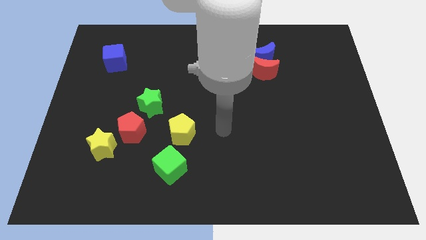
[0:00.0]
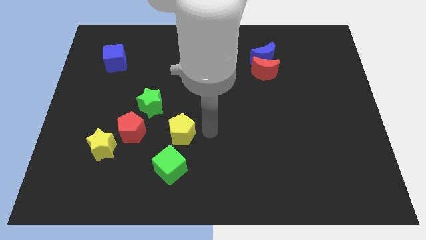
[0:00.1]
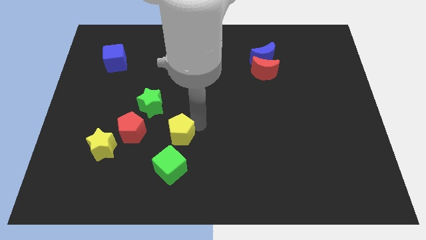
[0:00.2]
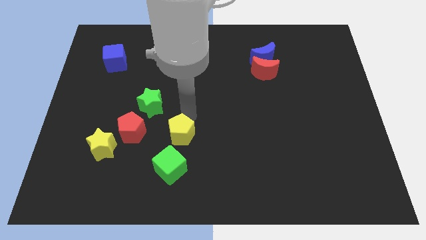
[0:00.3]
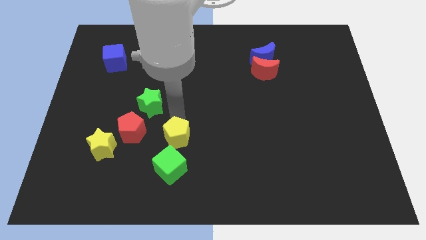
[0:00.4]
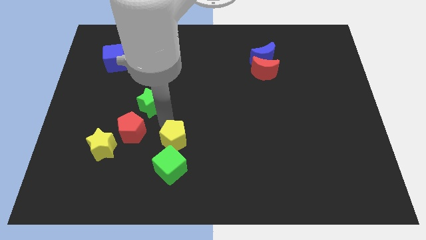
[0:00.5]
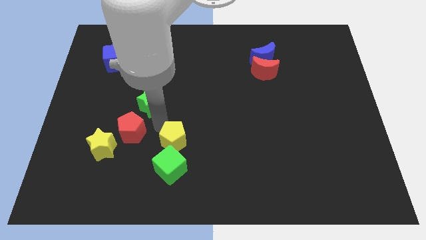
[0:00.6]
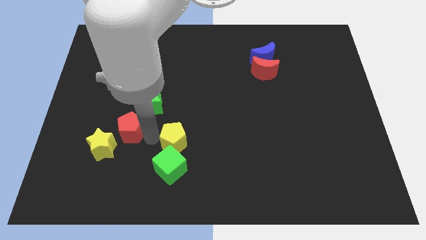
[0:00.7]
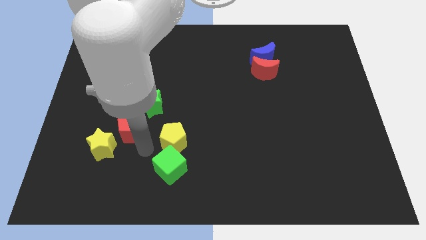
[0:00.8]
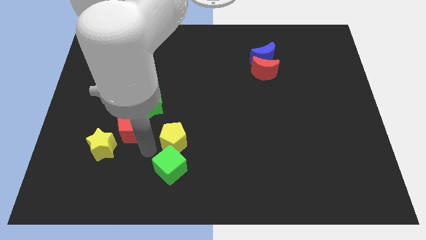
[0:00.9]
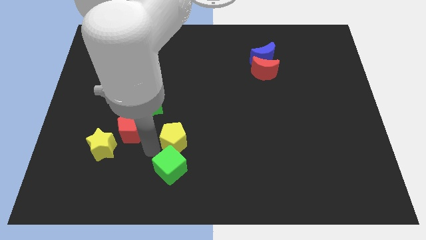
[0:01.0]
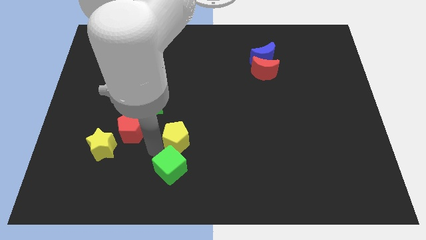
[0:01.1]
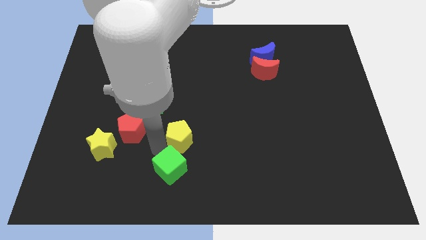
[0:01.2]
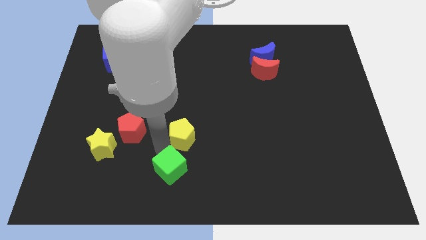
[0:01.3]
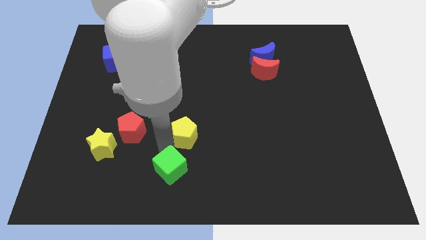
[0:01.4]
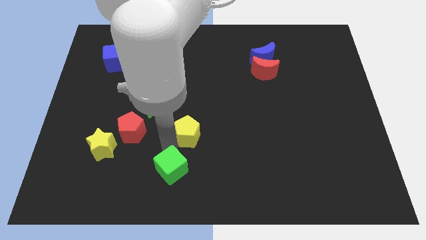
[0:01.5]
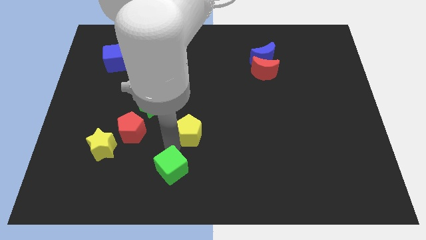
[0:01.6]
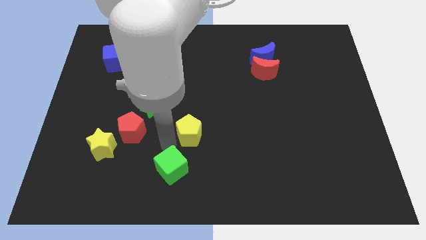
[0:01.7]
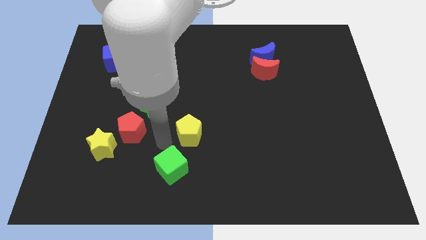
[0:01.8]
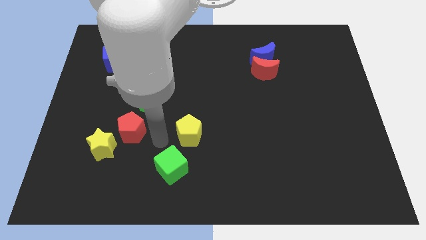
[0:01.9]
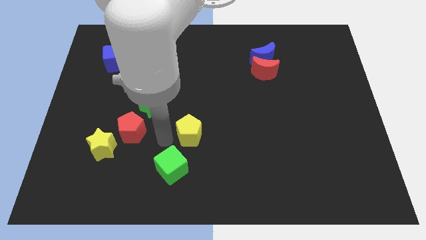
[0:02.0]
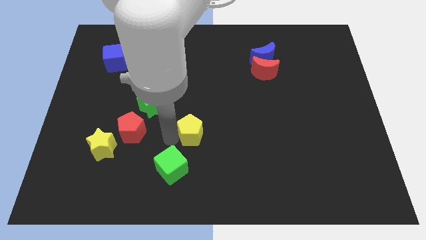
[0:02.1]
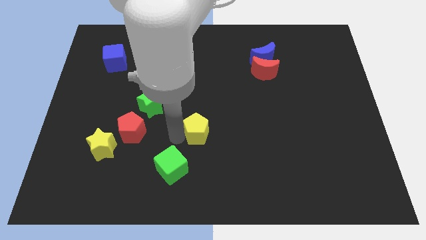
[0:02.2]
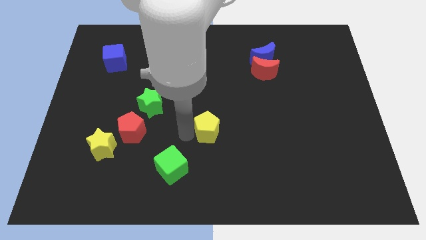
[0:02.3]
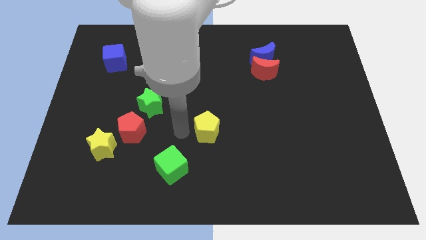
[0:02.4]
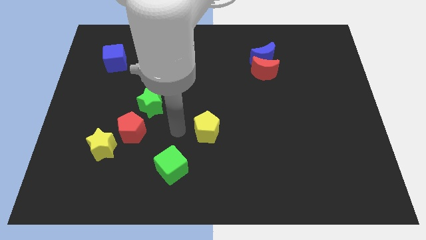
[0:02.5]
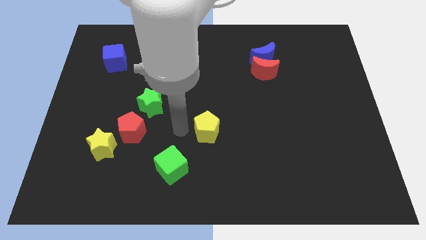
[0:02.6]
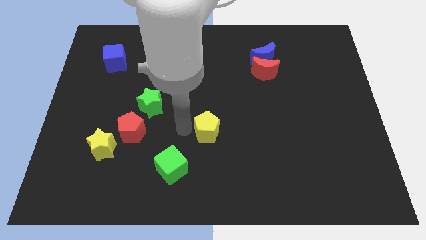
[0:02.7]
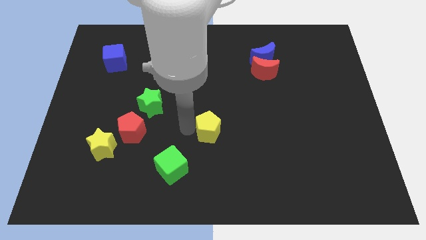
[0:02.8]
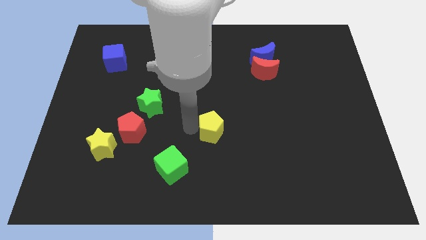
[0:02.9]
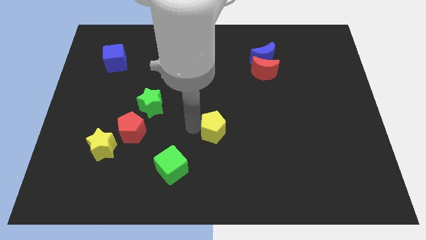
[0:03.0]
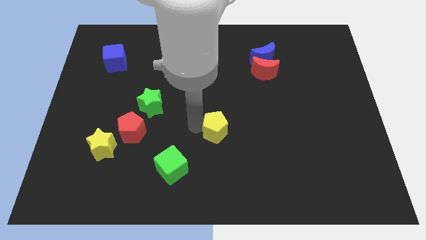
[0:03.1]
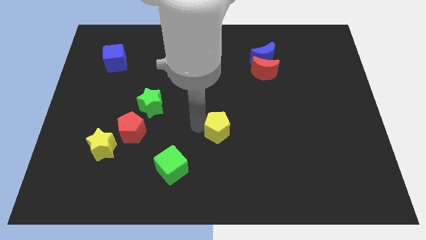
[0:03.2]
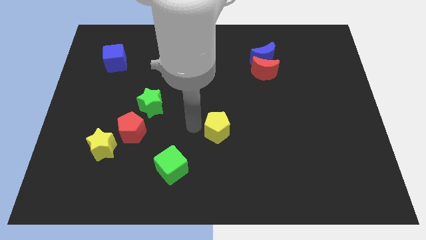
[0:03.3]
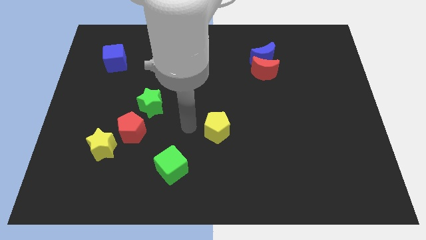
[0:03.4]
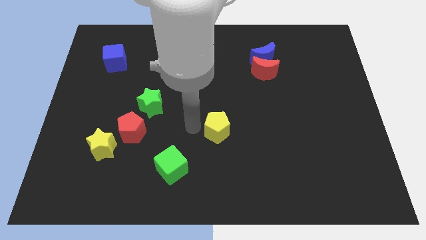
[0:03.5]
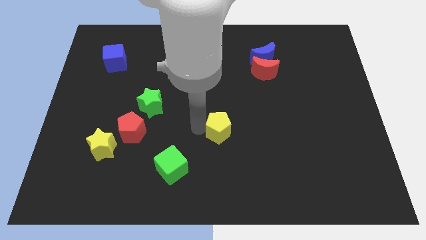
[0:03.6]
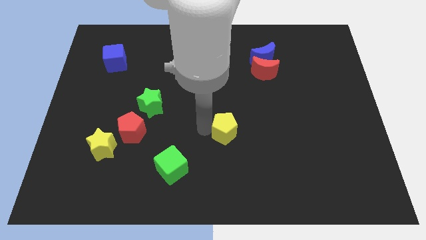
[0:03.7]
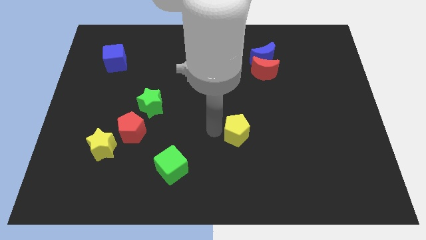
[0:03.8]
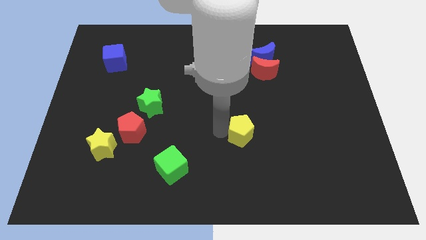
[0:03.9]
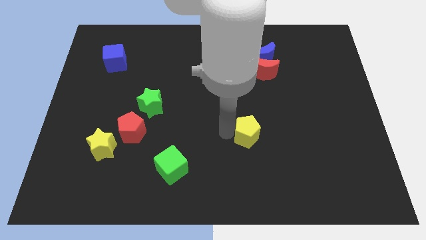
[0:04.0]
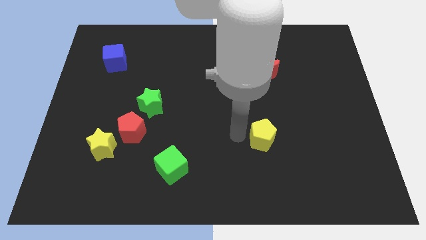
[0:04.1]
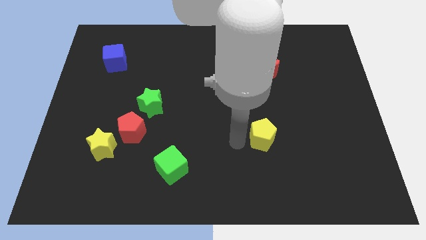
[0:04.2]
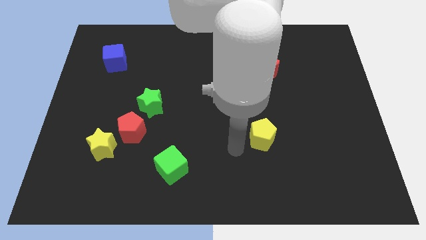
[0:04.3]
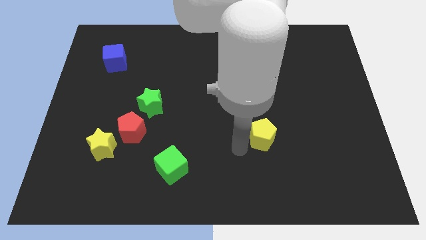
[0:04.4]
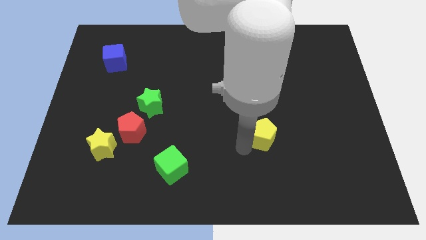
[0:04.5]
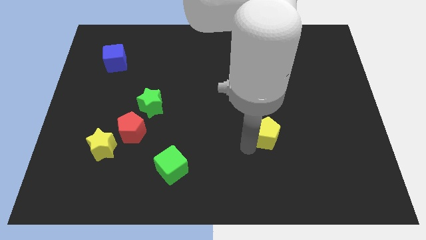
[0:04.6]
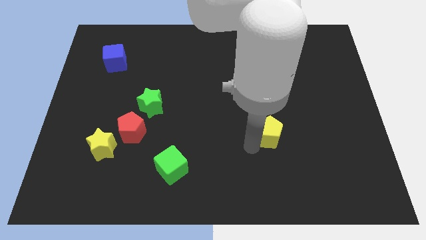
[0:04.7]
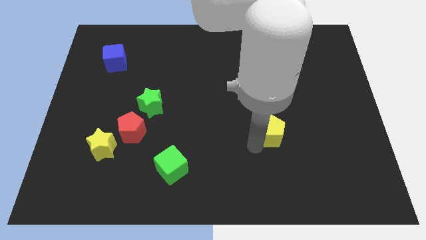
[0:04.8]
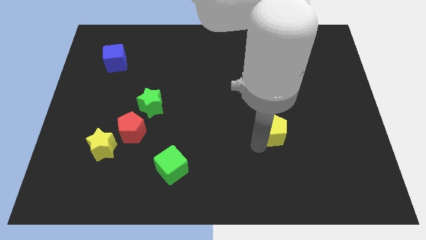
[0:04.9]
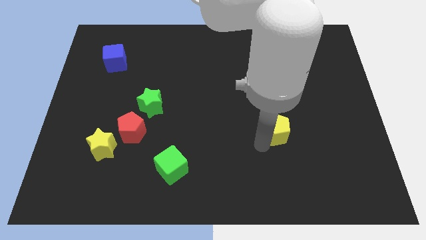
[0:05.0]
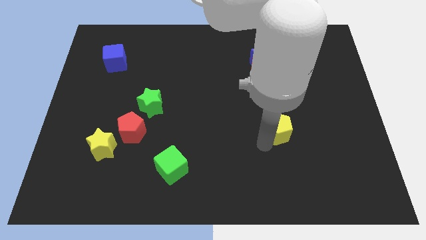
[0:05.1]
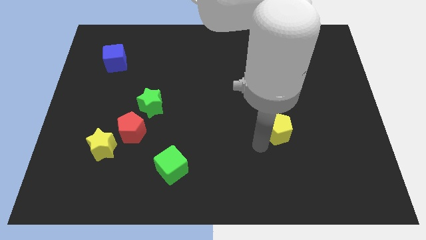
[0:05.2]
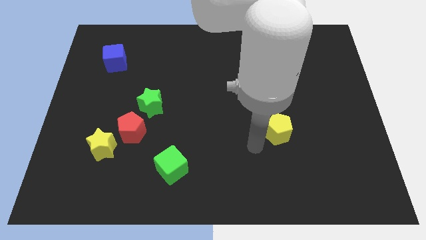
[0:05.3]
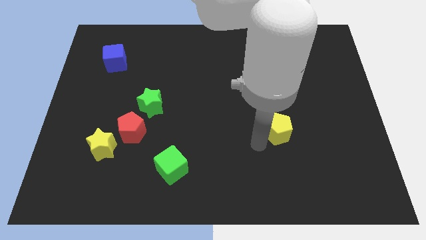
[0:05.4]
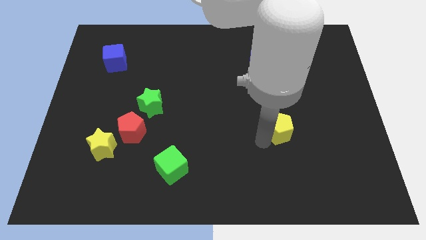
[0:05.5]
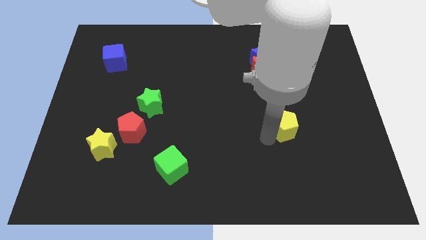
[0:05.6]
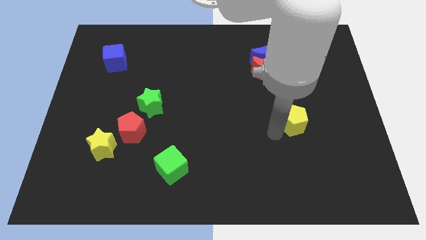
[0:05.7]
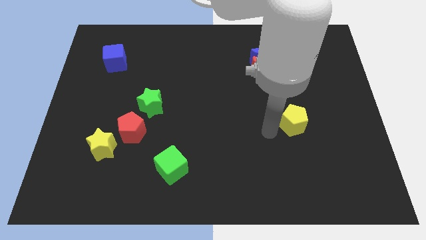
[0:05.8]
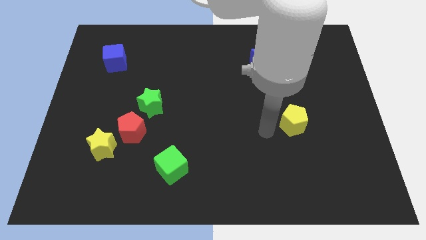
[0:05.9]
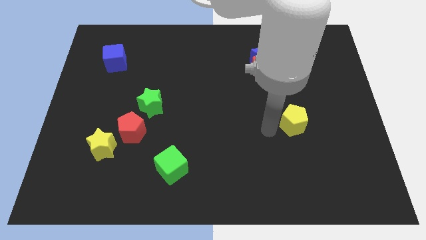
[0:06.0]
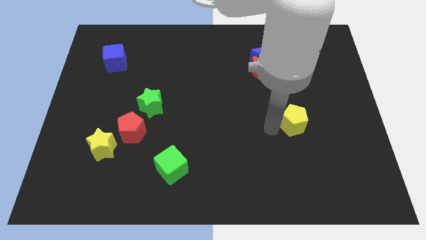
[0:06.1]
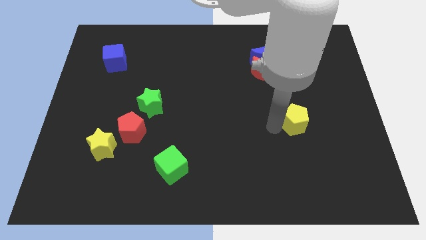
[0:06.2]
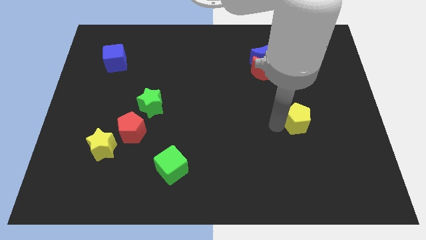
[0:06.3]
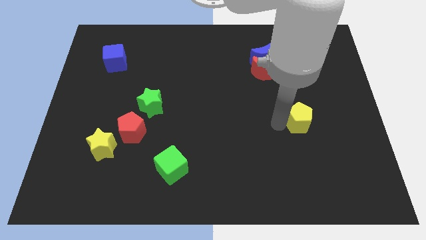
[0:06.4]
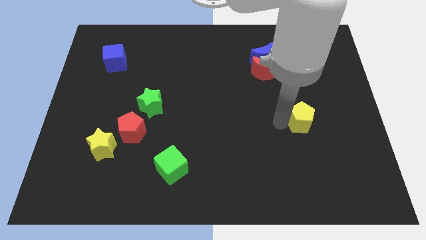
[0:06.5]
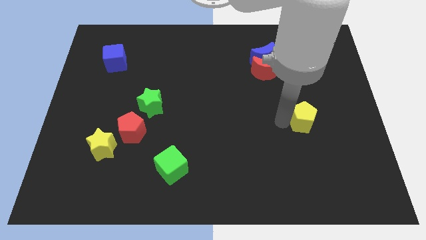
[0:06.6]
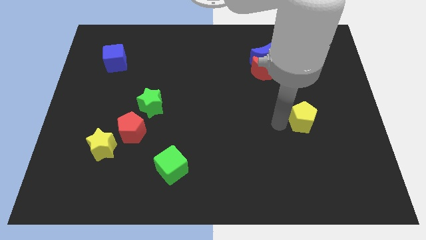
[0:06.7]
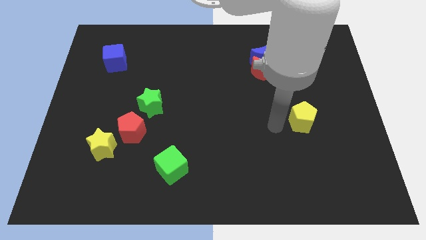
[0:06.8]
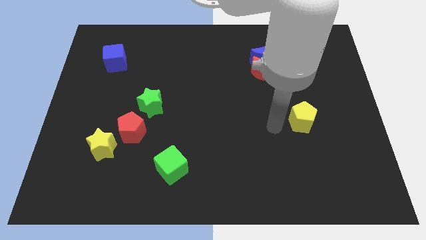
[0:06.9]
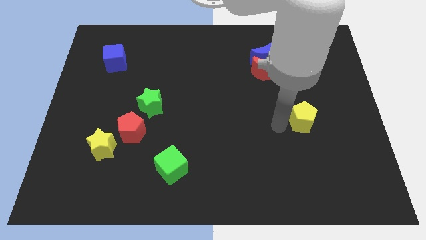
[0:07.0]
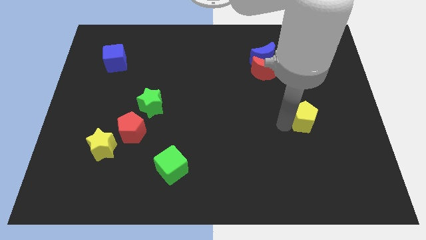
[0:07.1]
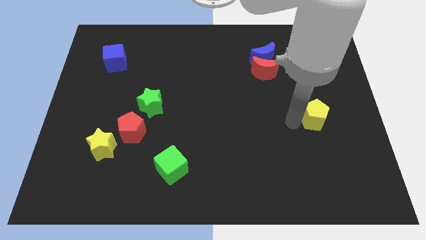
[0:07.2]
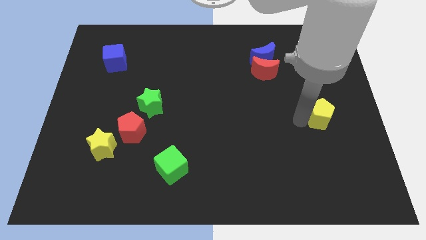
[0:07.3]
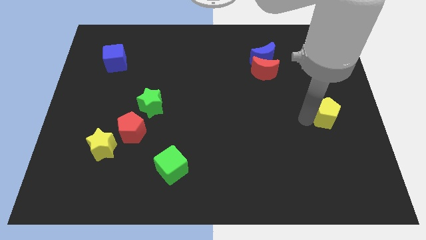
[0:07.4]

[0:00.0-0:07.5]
slide the yellow pentagon to the right side of the board
